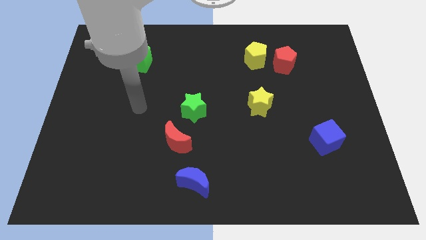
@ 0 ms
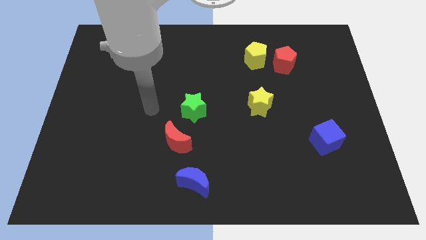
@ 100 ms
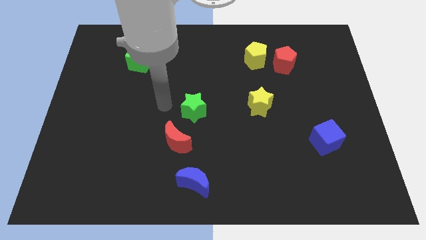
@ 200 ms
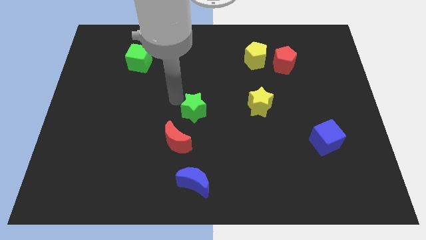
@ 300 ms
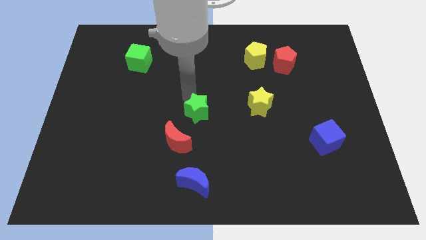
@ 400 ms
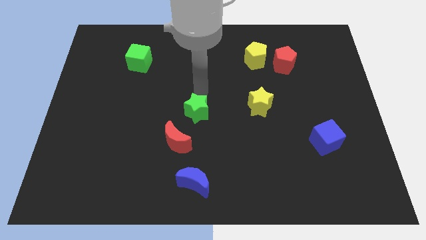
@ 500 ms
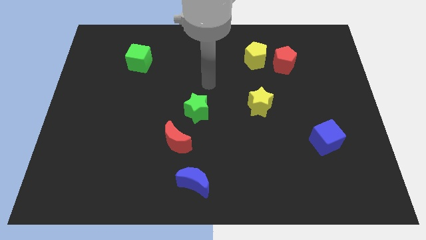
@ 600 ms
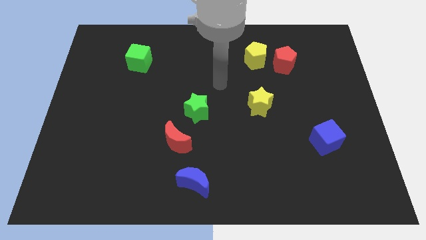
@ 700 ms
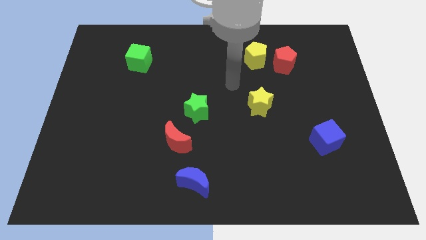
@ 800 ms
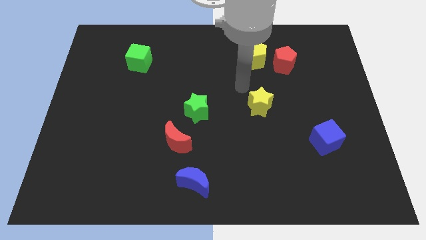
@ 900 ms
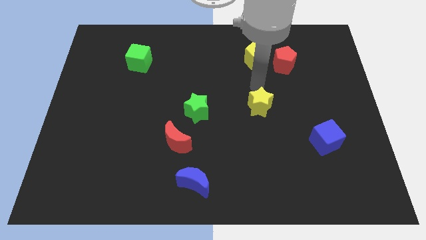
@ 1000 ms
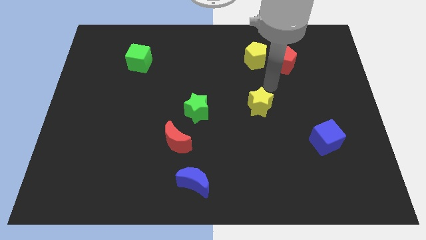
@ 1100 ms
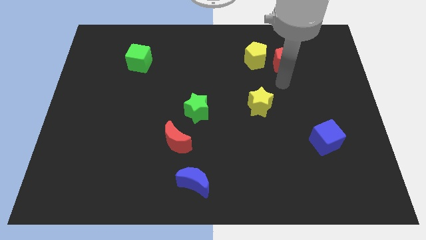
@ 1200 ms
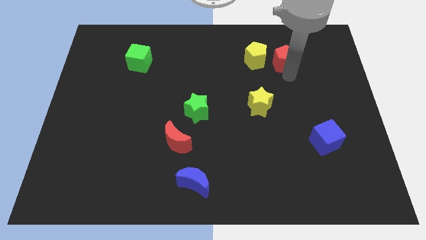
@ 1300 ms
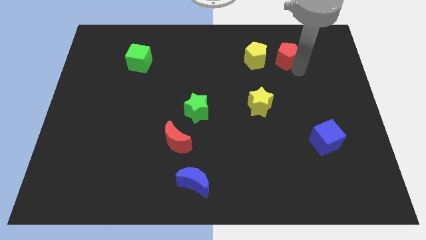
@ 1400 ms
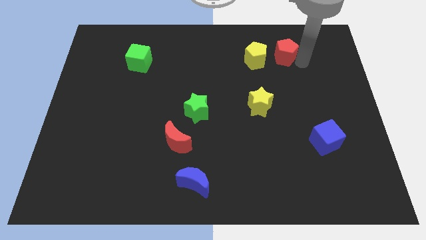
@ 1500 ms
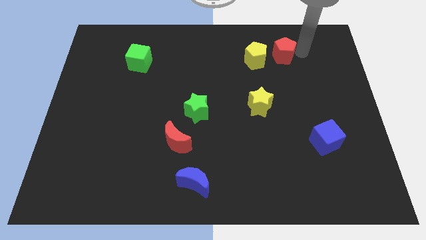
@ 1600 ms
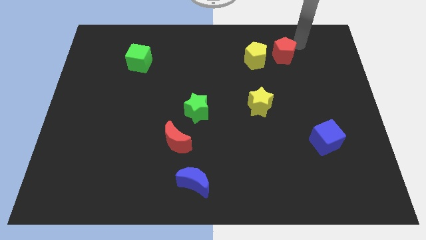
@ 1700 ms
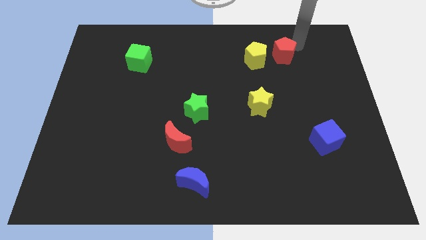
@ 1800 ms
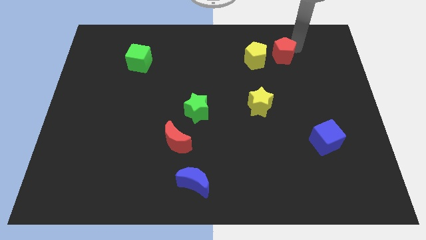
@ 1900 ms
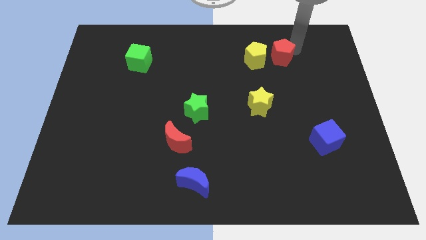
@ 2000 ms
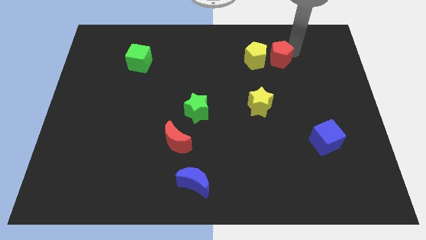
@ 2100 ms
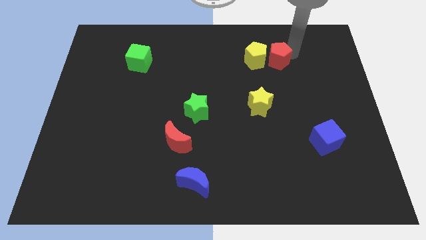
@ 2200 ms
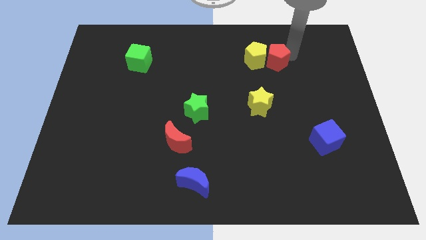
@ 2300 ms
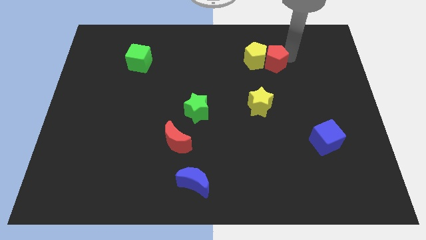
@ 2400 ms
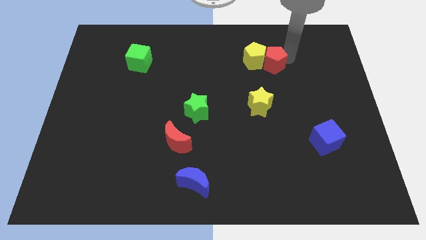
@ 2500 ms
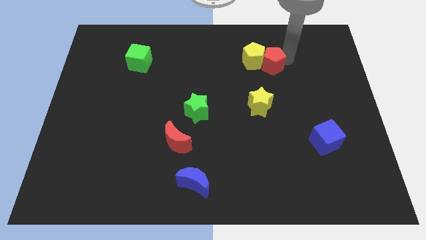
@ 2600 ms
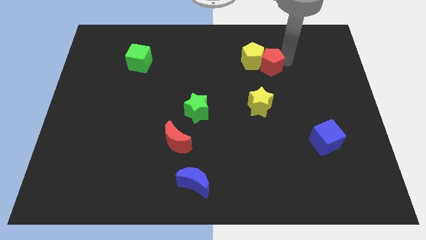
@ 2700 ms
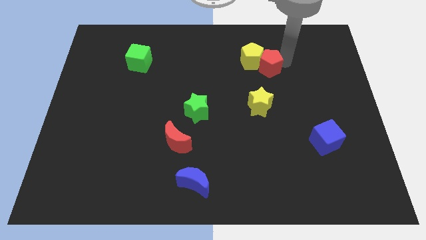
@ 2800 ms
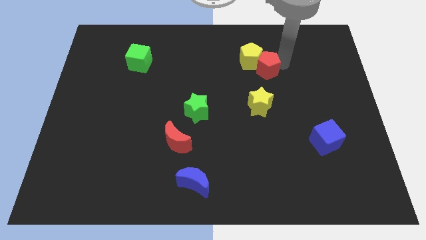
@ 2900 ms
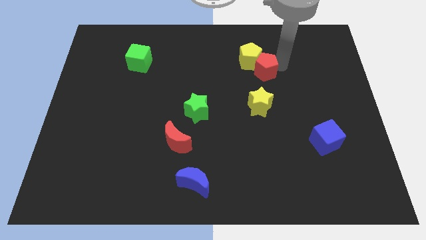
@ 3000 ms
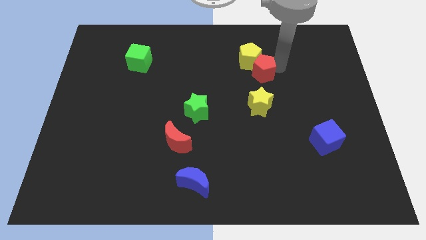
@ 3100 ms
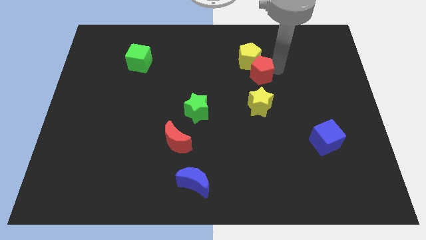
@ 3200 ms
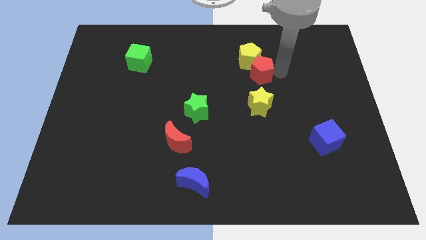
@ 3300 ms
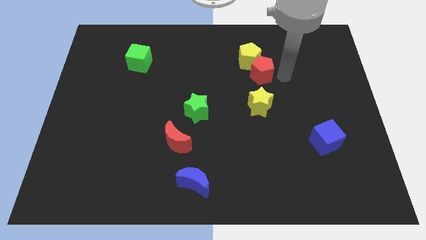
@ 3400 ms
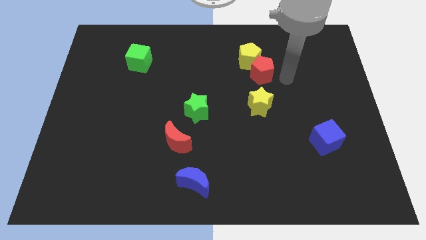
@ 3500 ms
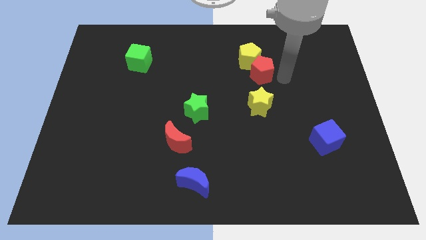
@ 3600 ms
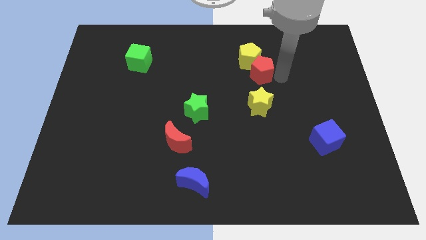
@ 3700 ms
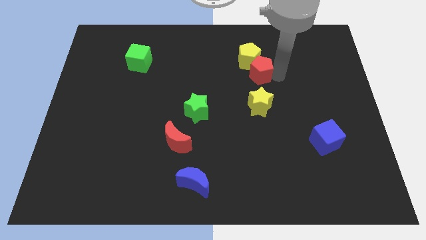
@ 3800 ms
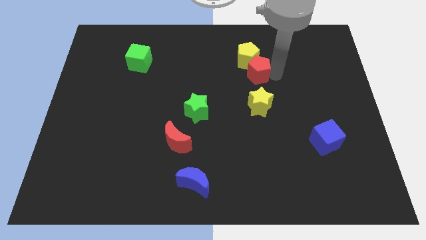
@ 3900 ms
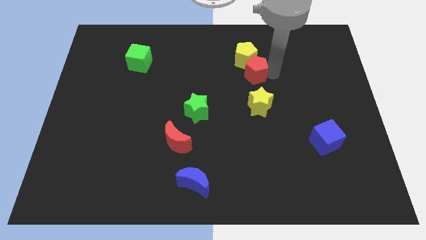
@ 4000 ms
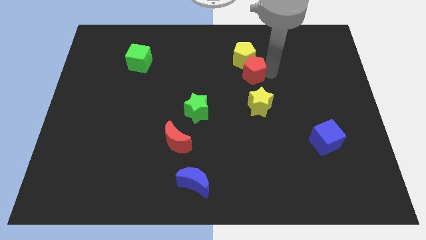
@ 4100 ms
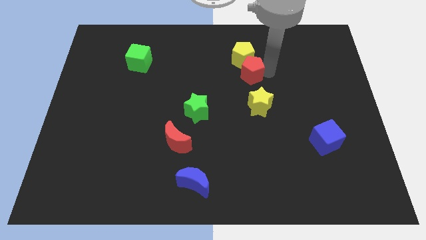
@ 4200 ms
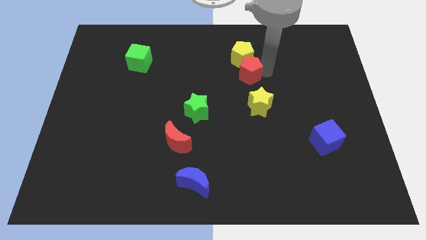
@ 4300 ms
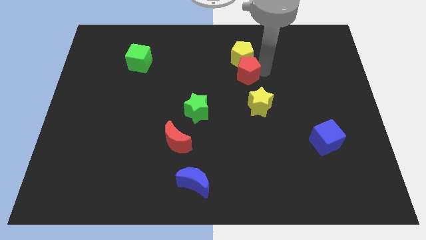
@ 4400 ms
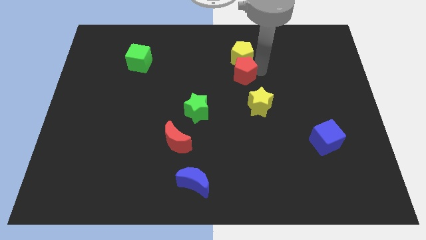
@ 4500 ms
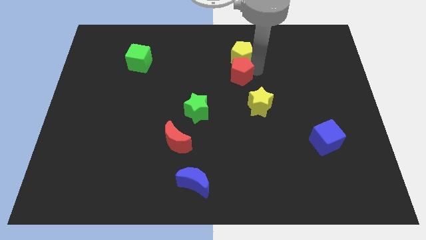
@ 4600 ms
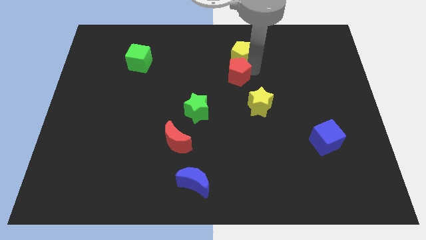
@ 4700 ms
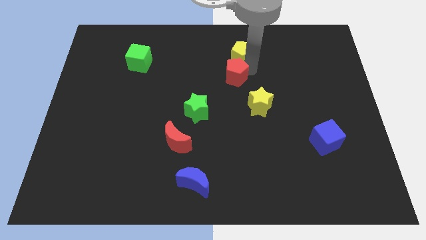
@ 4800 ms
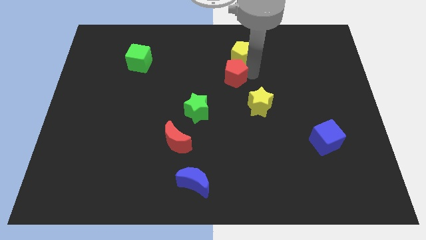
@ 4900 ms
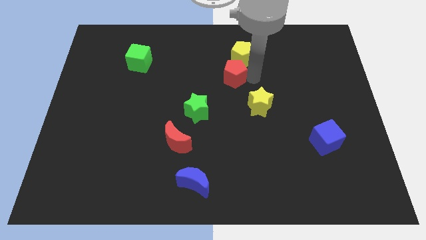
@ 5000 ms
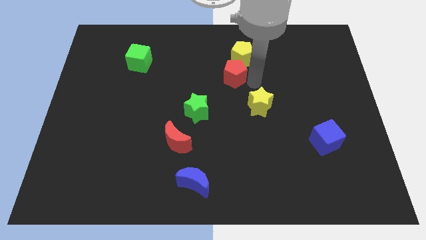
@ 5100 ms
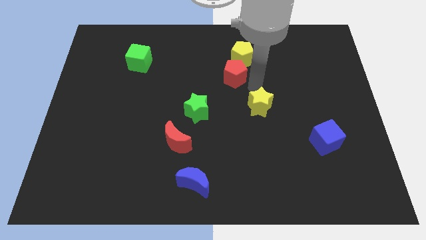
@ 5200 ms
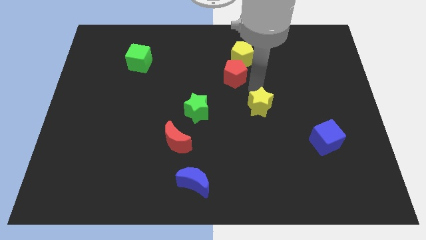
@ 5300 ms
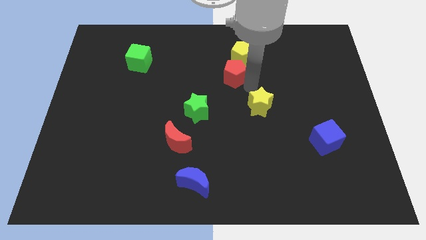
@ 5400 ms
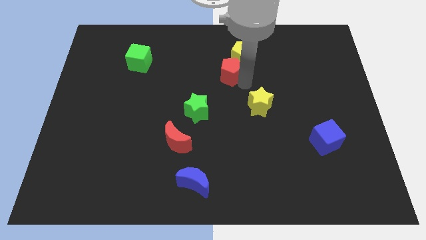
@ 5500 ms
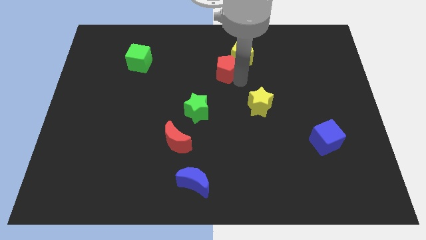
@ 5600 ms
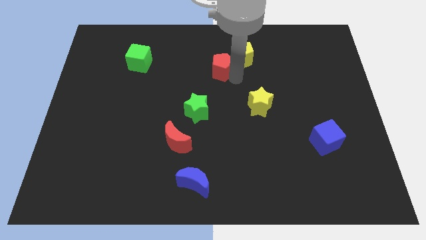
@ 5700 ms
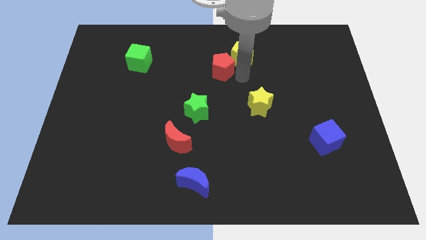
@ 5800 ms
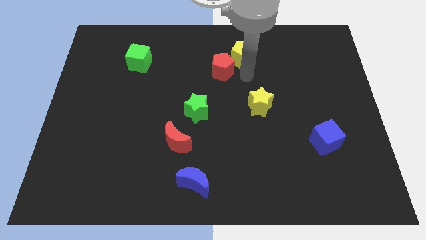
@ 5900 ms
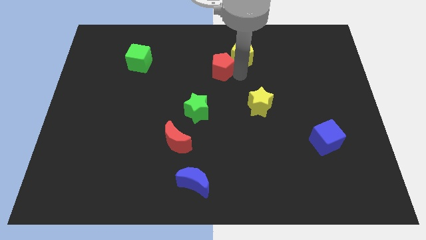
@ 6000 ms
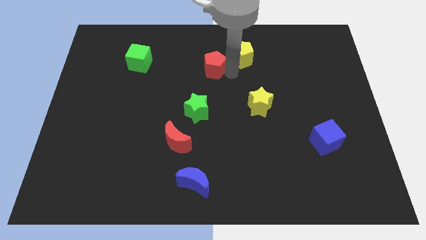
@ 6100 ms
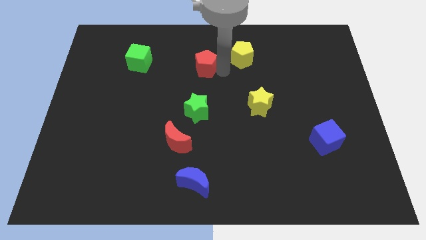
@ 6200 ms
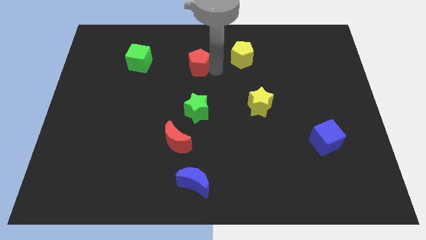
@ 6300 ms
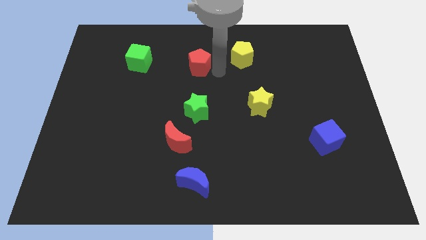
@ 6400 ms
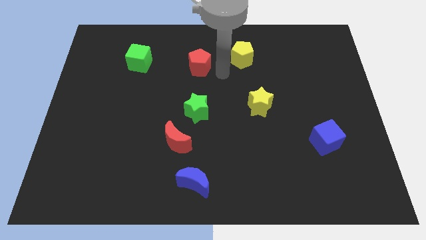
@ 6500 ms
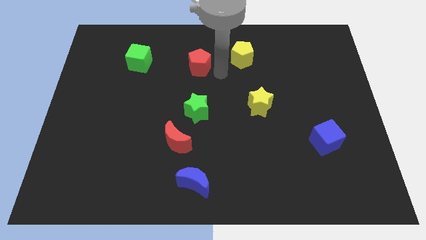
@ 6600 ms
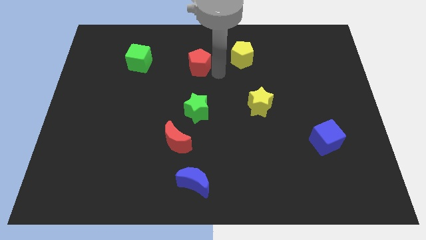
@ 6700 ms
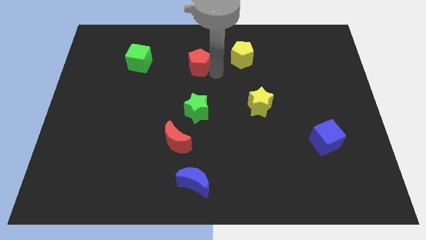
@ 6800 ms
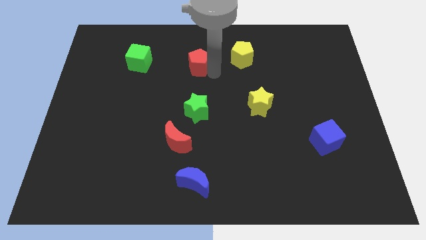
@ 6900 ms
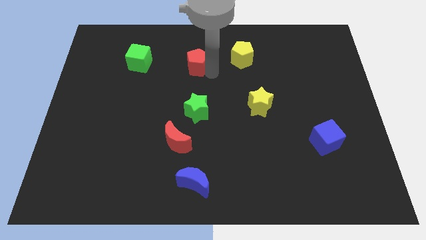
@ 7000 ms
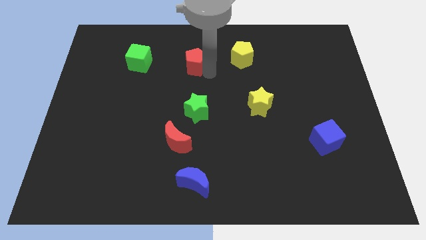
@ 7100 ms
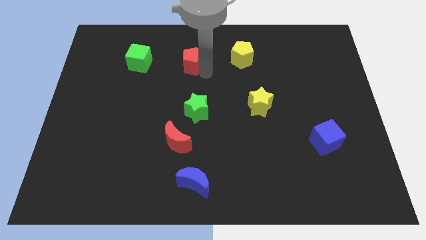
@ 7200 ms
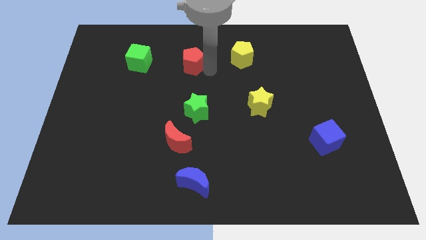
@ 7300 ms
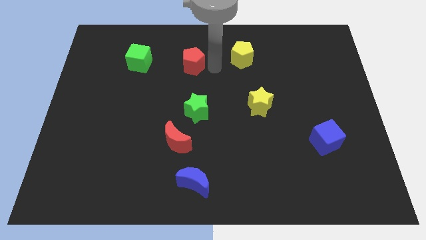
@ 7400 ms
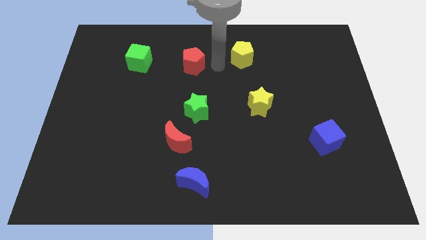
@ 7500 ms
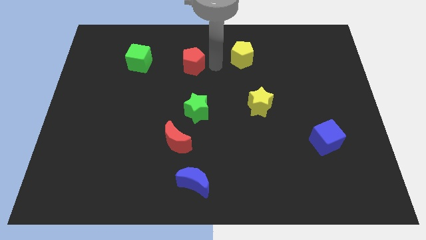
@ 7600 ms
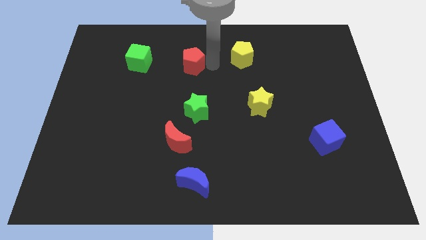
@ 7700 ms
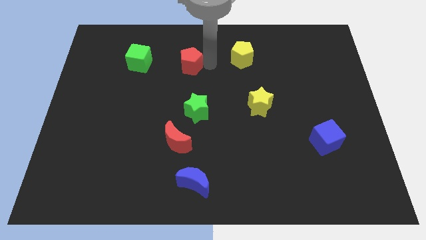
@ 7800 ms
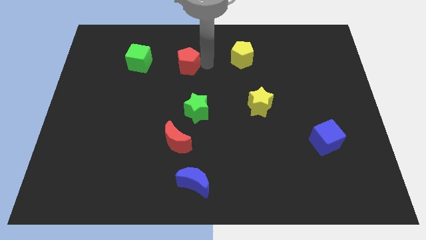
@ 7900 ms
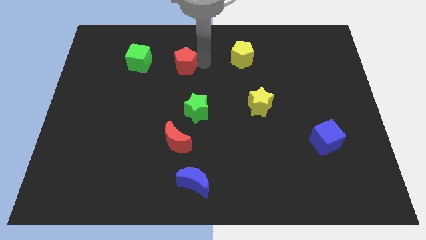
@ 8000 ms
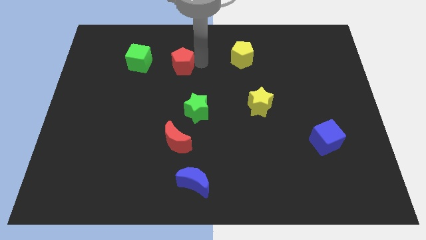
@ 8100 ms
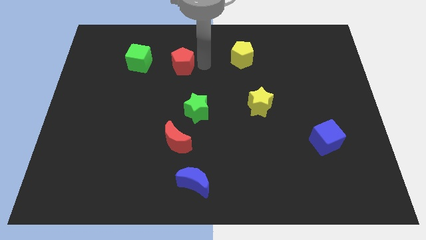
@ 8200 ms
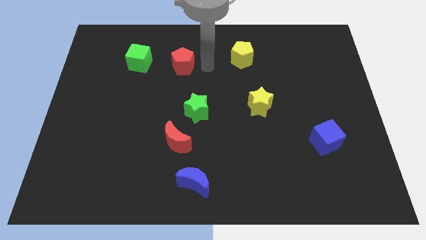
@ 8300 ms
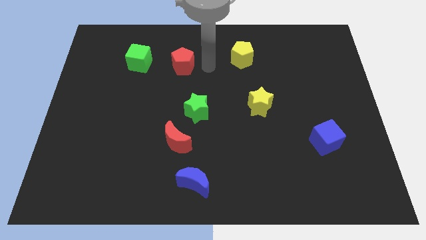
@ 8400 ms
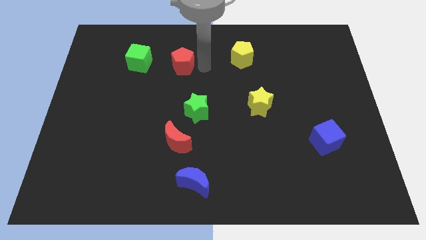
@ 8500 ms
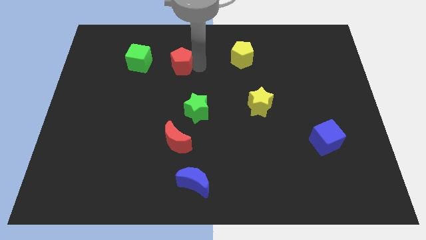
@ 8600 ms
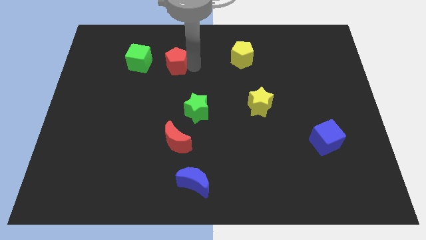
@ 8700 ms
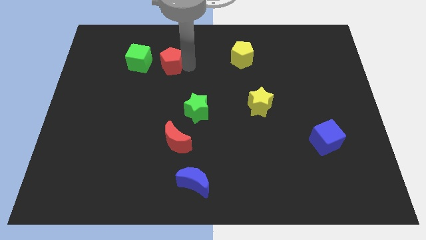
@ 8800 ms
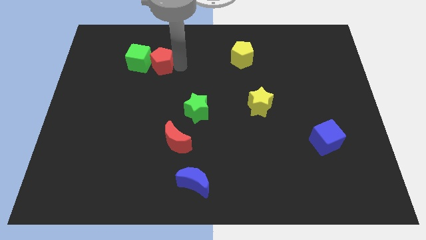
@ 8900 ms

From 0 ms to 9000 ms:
push the red pentagon to the green cube
